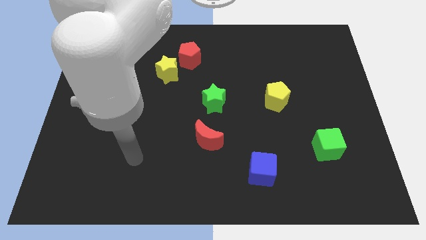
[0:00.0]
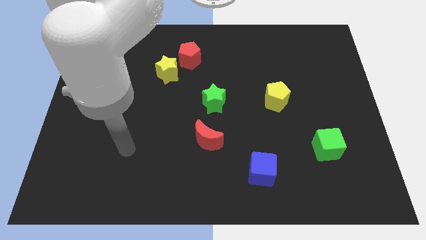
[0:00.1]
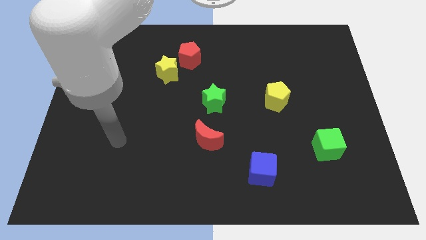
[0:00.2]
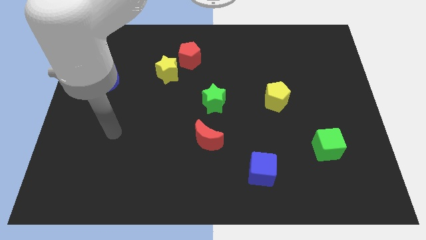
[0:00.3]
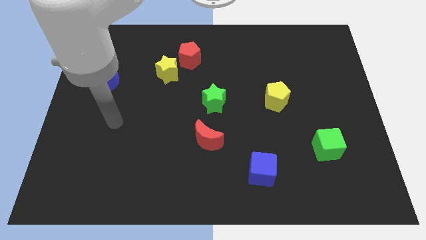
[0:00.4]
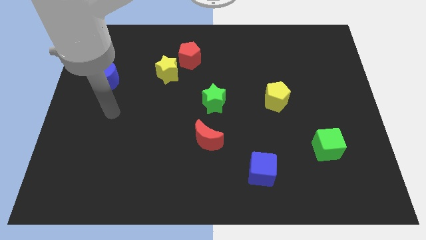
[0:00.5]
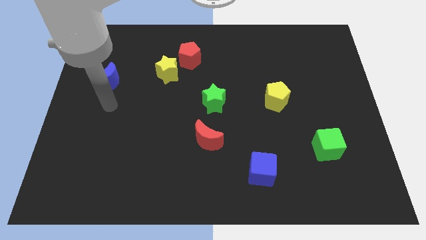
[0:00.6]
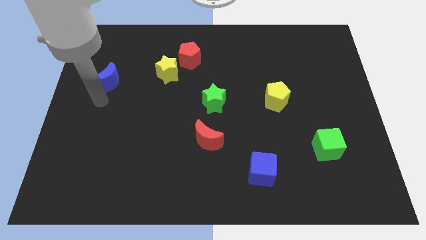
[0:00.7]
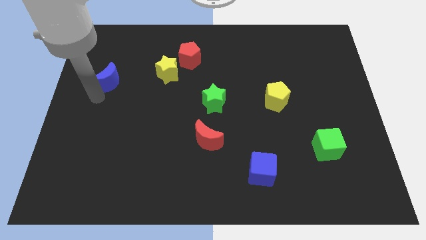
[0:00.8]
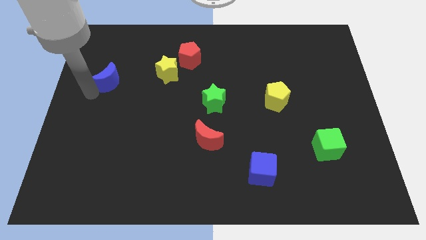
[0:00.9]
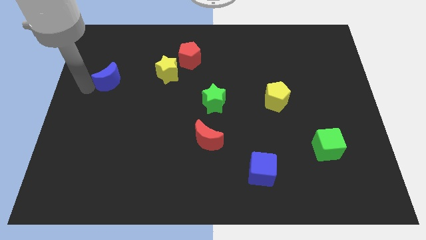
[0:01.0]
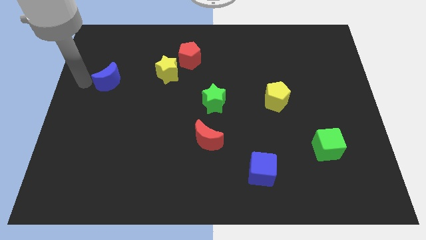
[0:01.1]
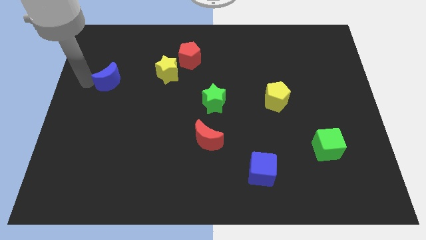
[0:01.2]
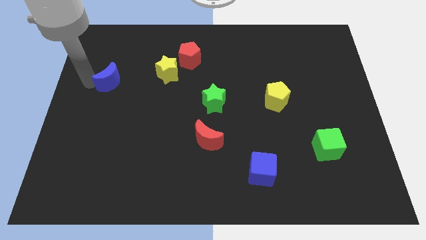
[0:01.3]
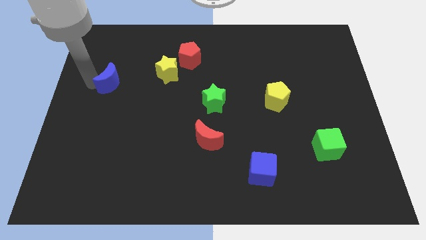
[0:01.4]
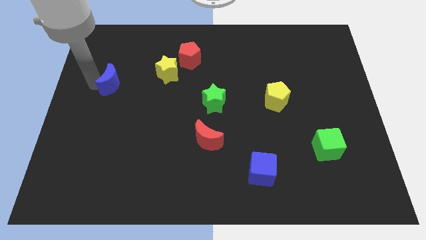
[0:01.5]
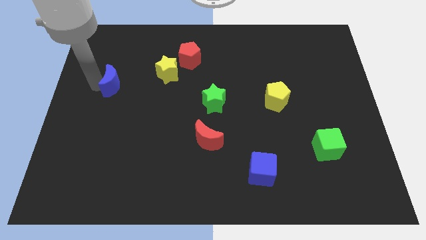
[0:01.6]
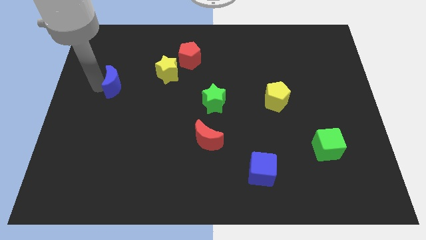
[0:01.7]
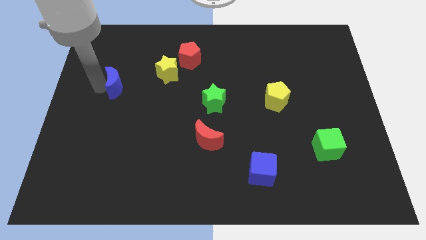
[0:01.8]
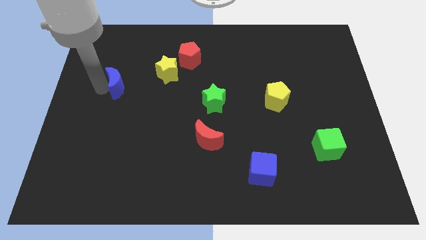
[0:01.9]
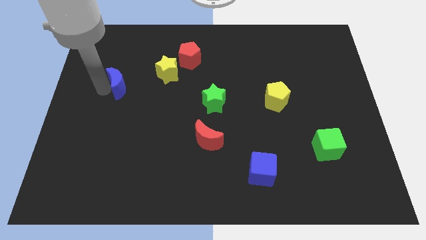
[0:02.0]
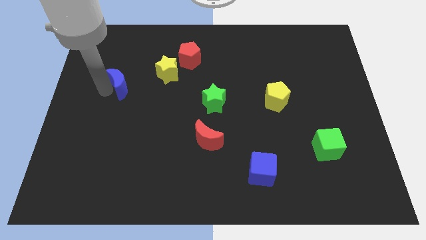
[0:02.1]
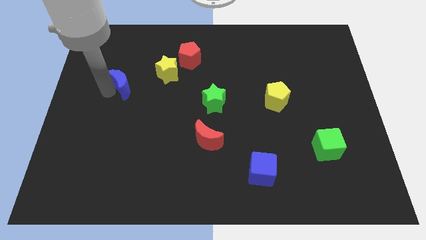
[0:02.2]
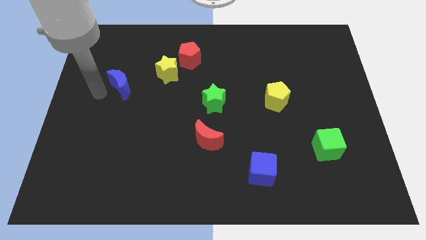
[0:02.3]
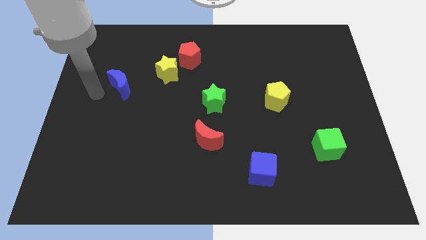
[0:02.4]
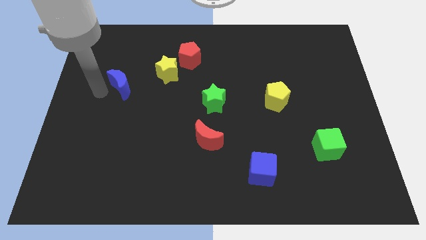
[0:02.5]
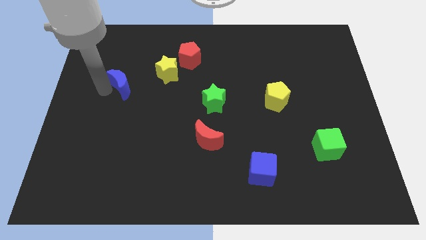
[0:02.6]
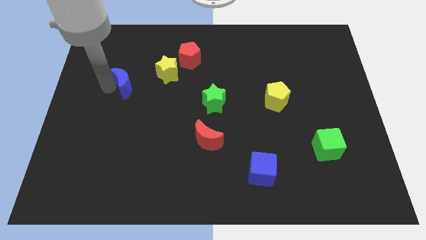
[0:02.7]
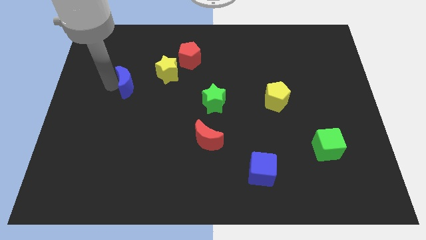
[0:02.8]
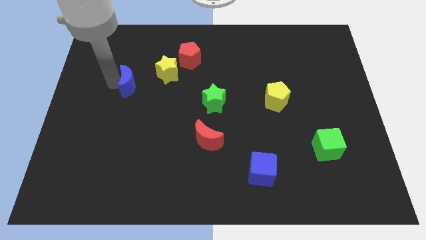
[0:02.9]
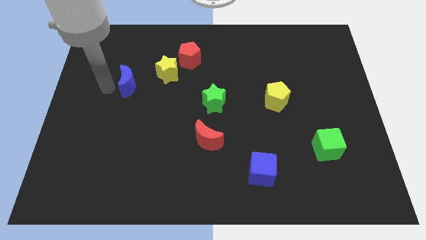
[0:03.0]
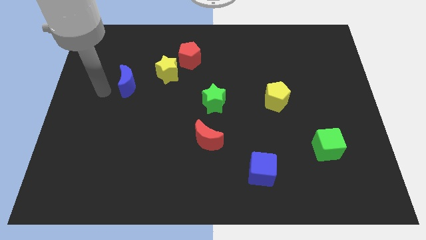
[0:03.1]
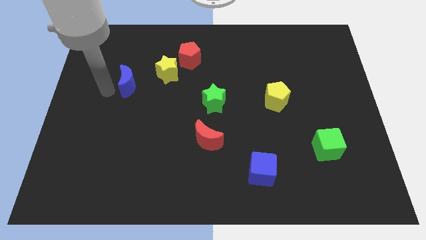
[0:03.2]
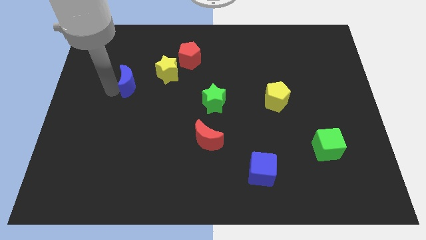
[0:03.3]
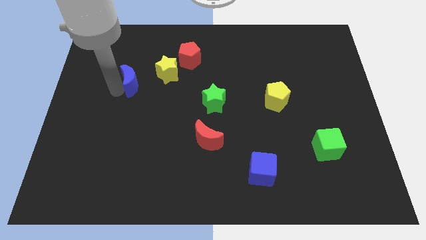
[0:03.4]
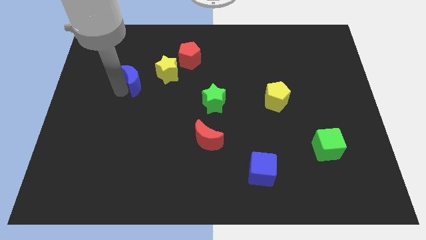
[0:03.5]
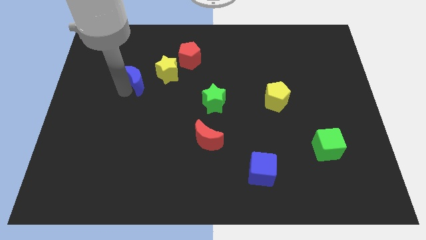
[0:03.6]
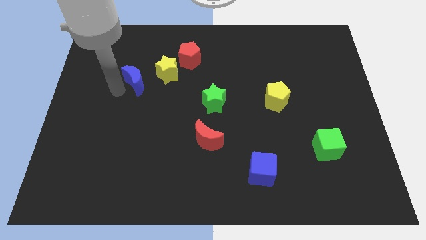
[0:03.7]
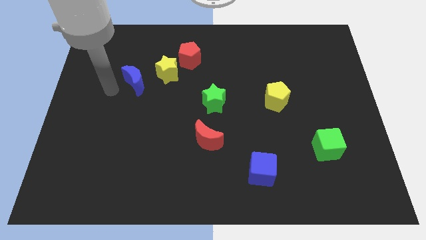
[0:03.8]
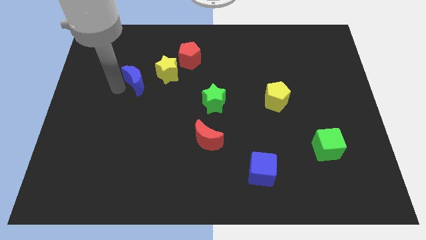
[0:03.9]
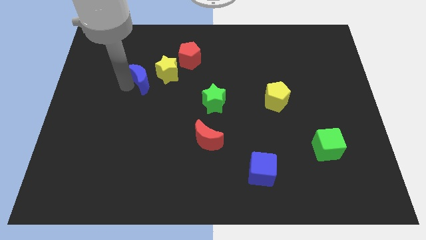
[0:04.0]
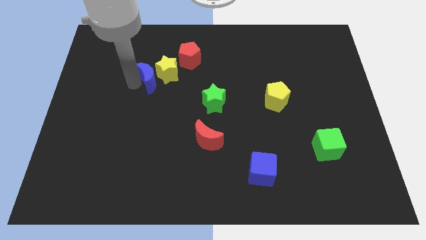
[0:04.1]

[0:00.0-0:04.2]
put the blue moon close to the yellow star

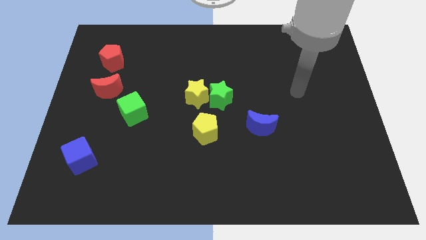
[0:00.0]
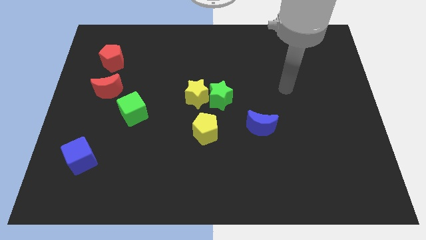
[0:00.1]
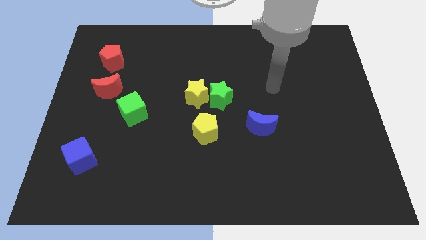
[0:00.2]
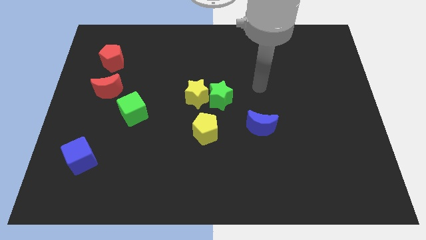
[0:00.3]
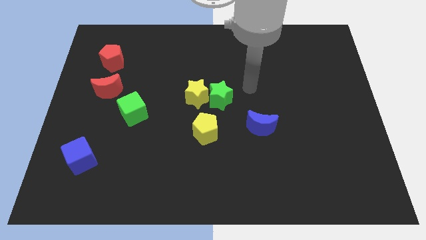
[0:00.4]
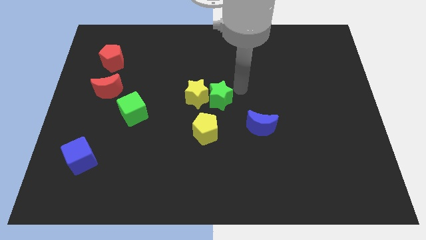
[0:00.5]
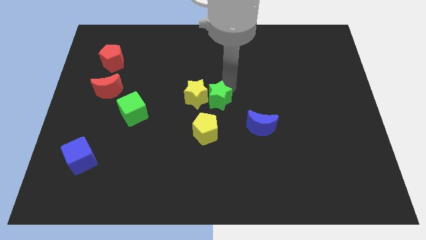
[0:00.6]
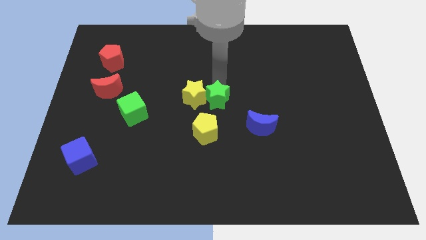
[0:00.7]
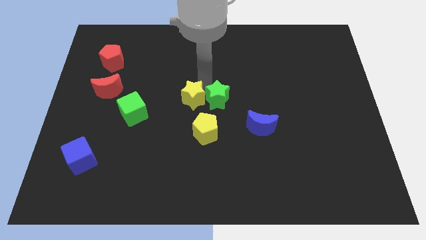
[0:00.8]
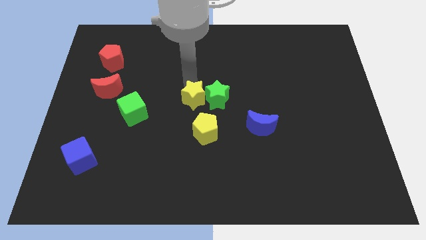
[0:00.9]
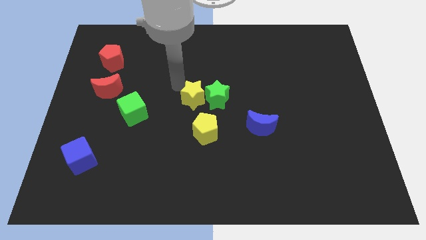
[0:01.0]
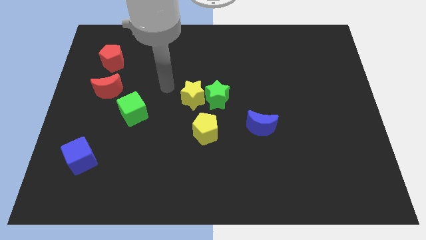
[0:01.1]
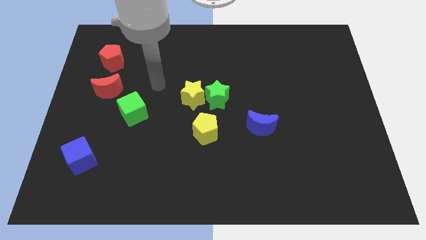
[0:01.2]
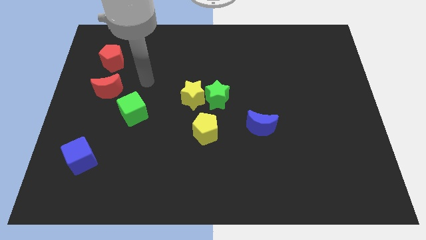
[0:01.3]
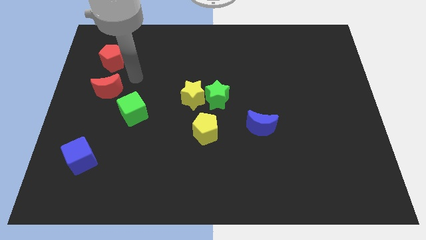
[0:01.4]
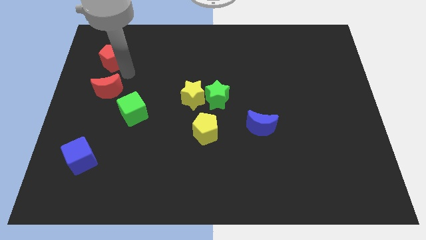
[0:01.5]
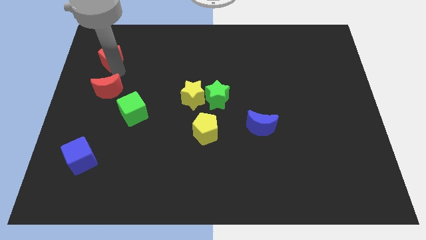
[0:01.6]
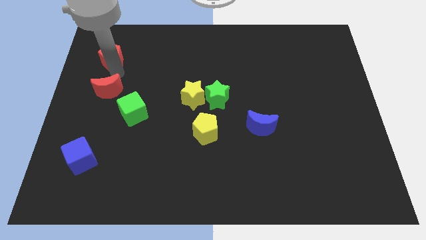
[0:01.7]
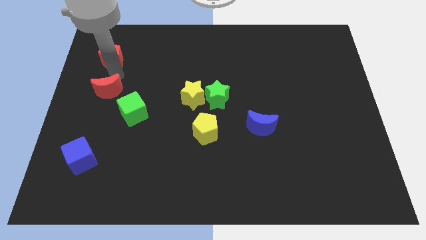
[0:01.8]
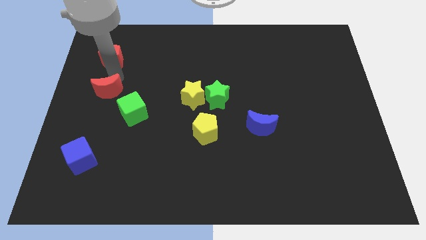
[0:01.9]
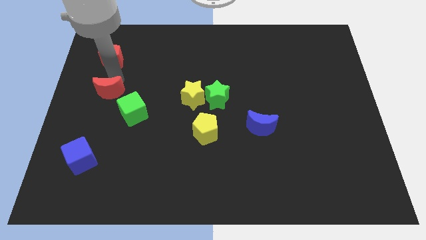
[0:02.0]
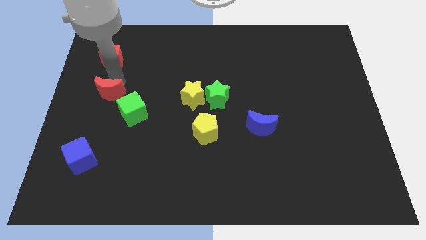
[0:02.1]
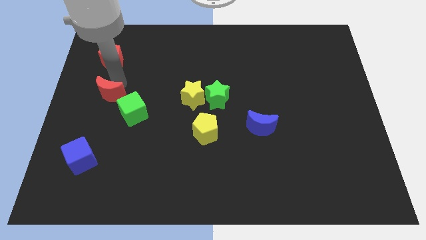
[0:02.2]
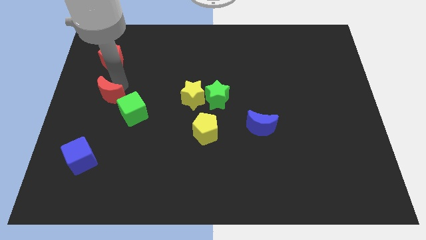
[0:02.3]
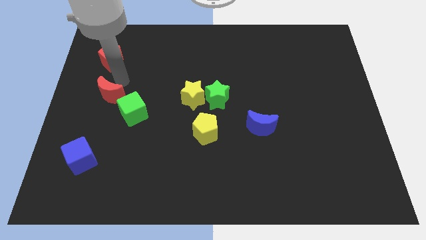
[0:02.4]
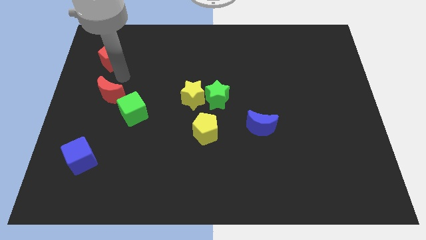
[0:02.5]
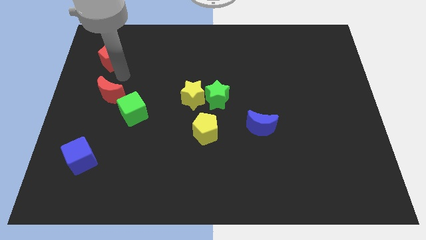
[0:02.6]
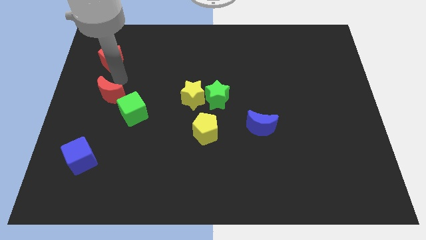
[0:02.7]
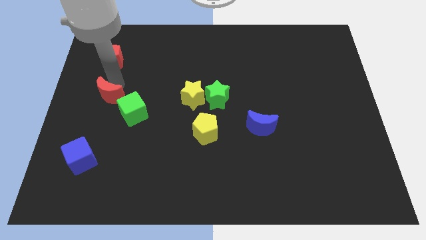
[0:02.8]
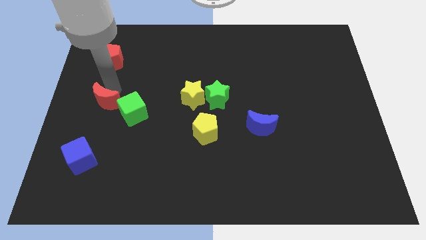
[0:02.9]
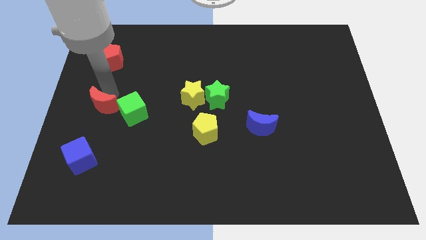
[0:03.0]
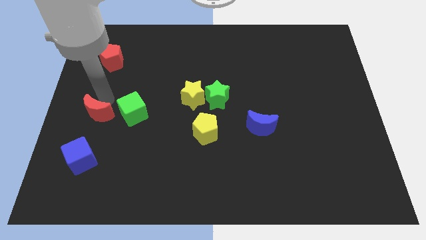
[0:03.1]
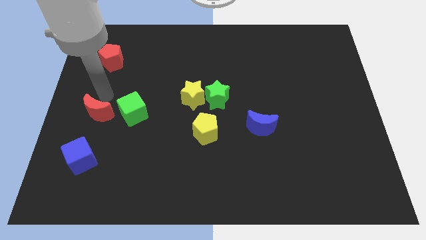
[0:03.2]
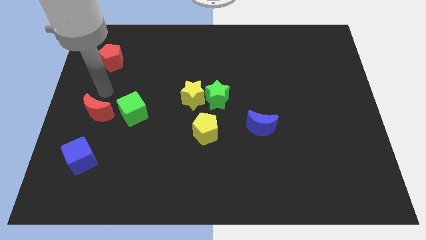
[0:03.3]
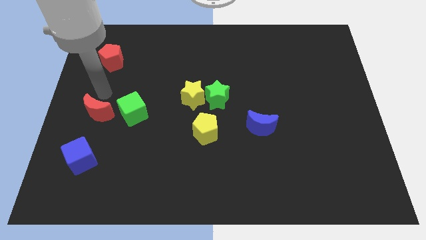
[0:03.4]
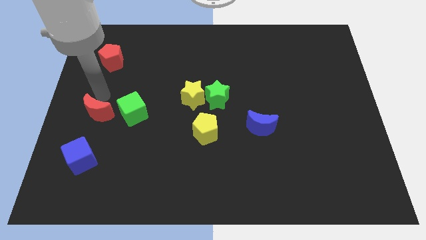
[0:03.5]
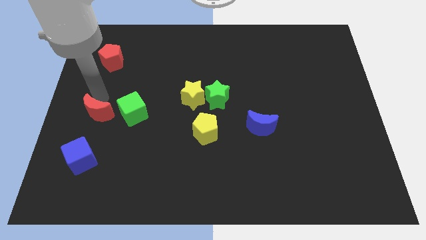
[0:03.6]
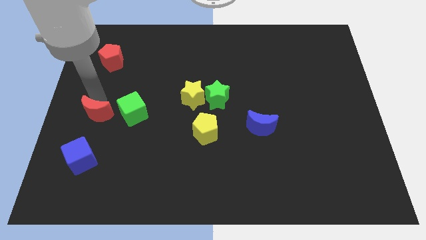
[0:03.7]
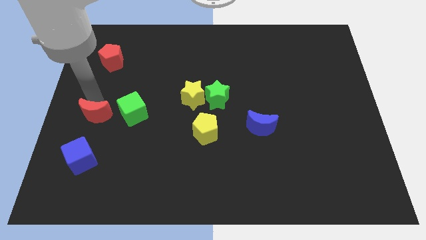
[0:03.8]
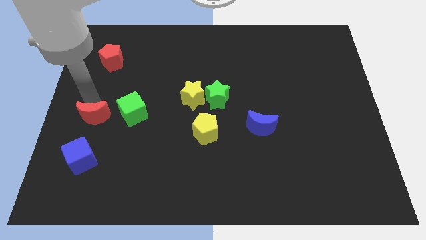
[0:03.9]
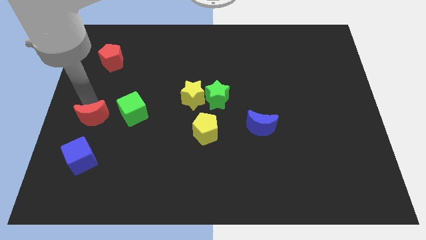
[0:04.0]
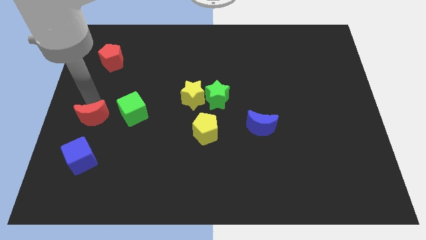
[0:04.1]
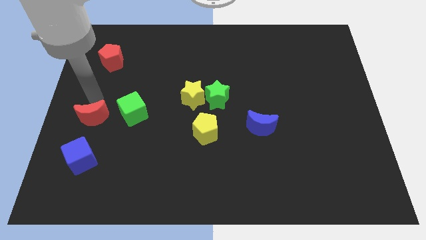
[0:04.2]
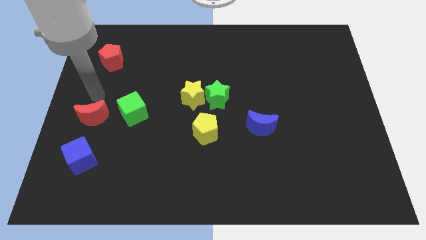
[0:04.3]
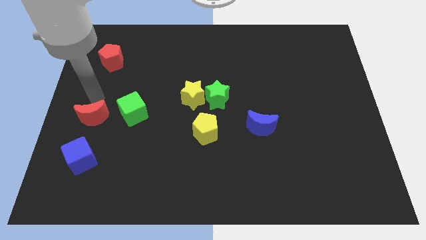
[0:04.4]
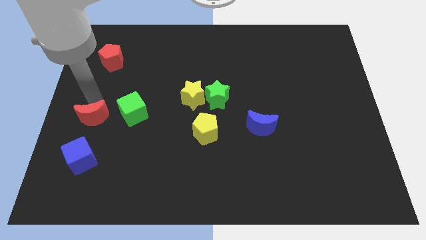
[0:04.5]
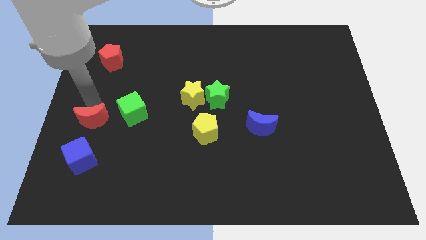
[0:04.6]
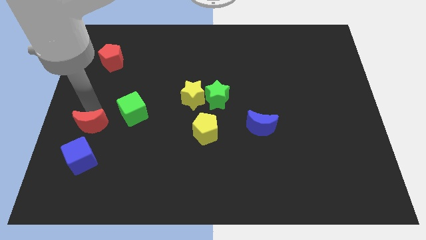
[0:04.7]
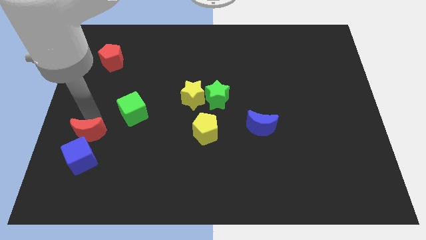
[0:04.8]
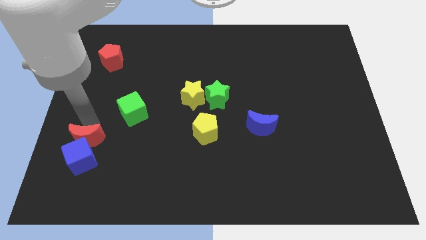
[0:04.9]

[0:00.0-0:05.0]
put the red moon close to the blue cube
